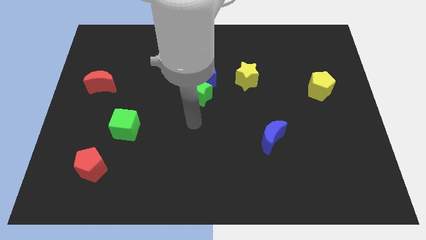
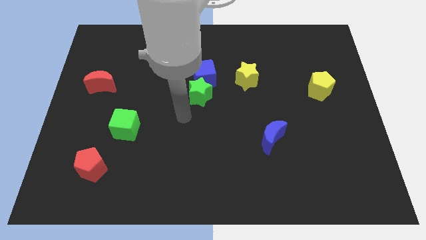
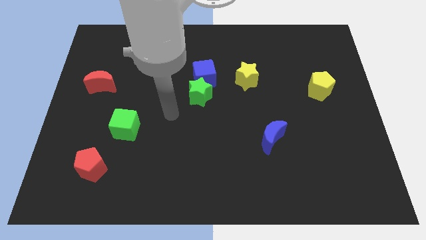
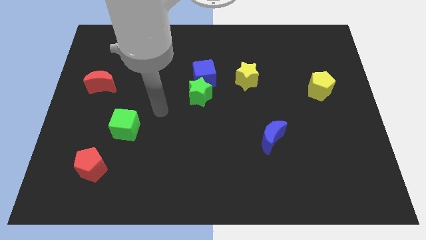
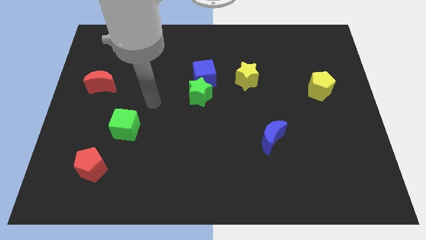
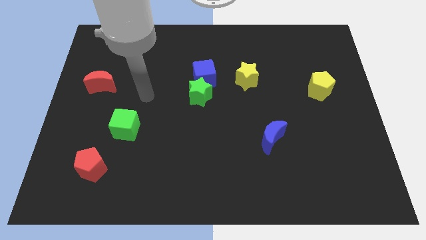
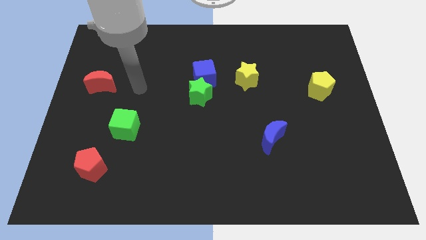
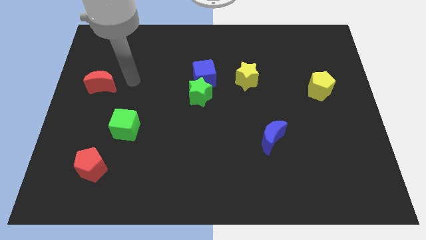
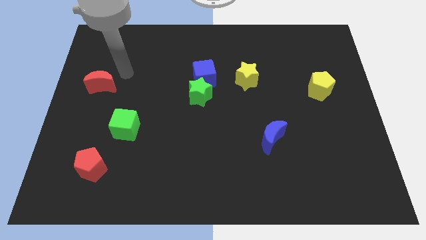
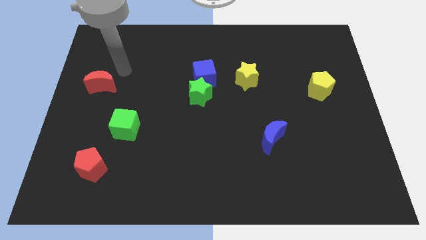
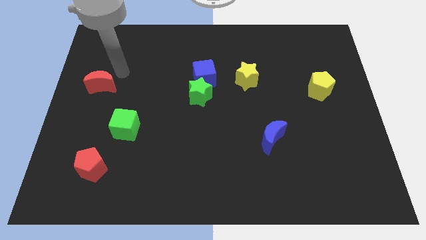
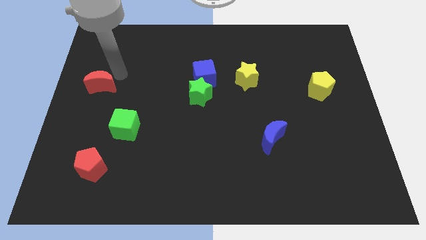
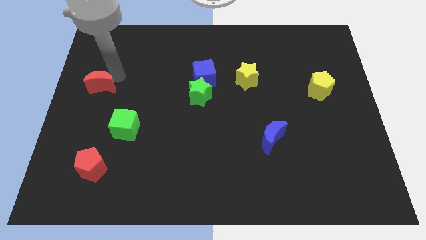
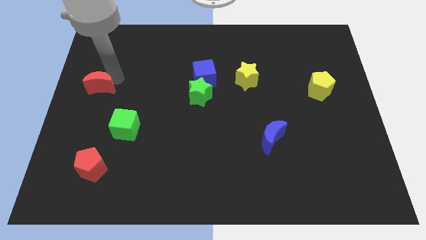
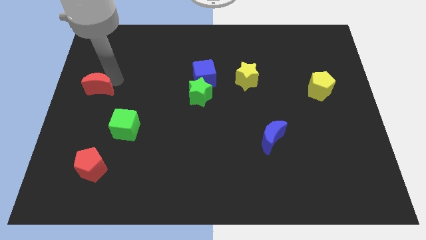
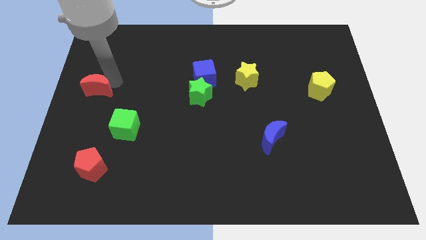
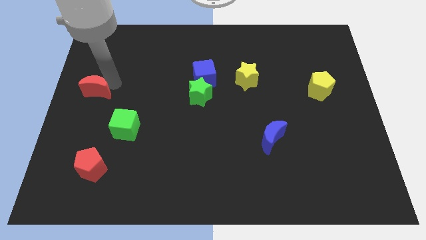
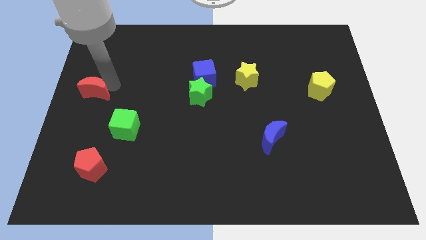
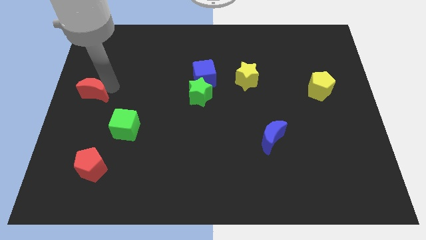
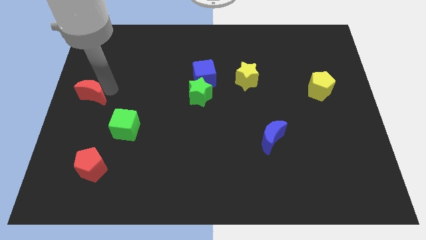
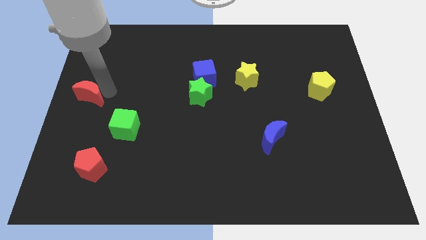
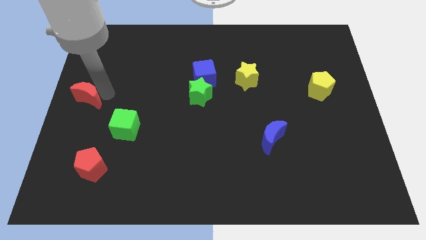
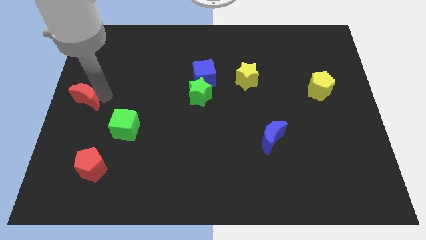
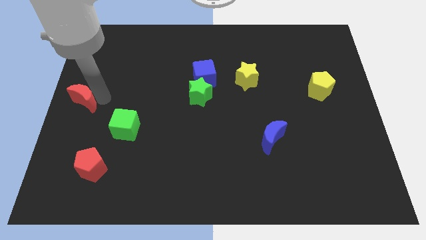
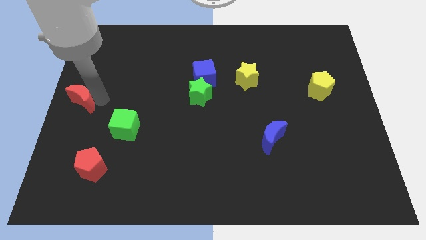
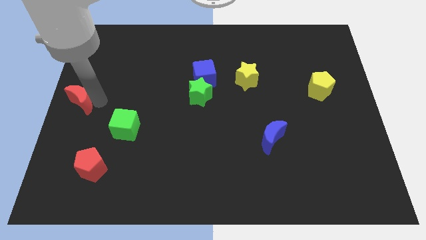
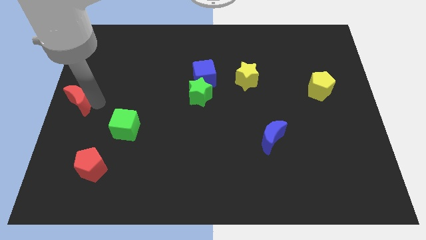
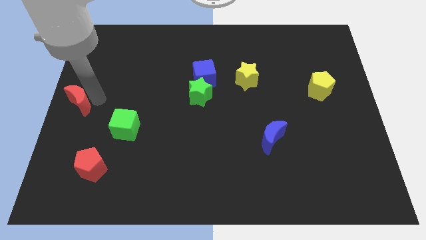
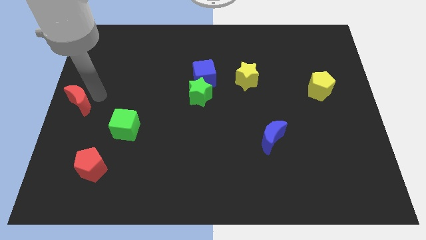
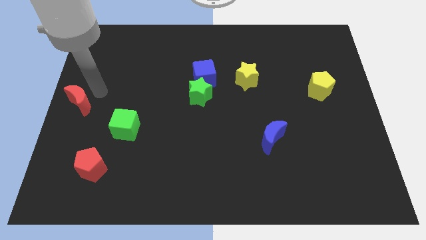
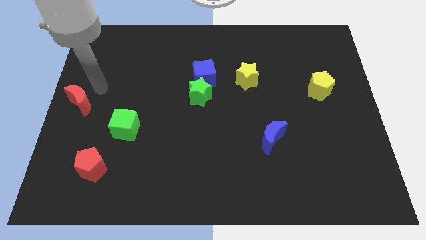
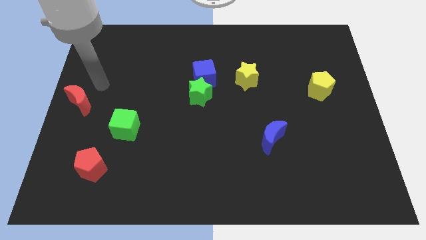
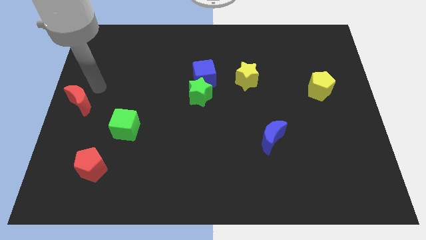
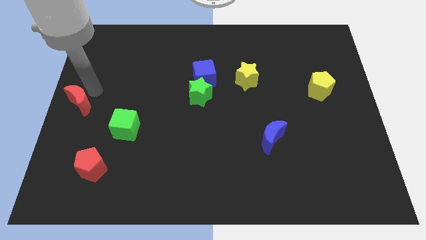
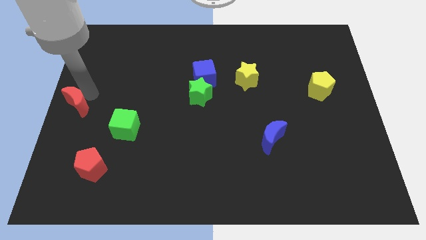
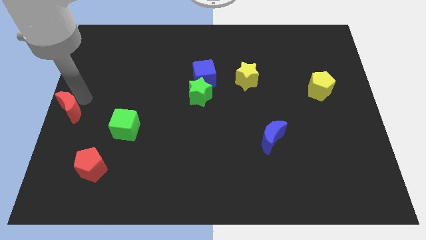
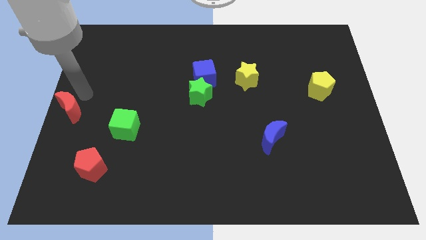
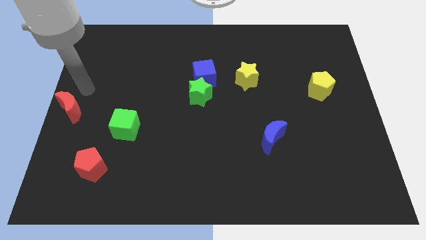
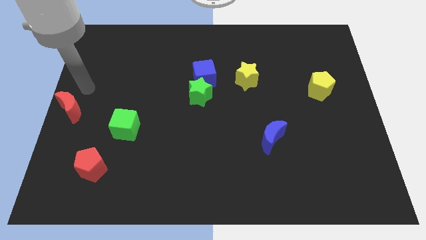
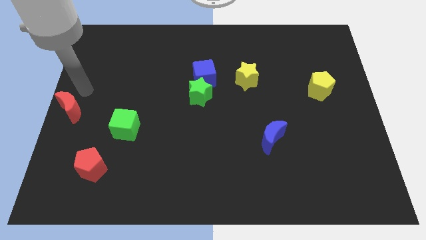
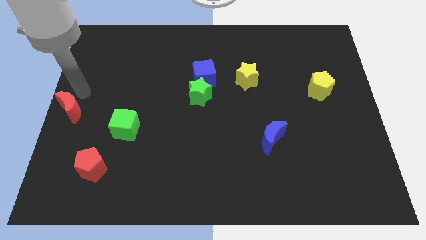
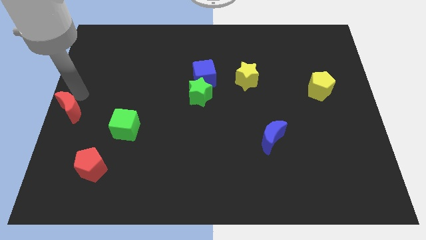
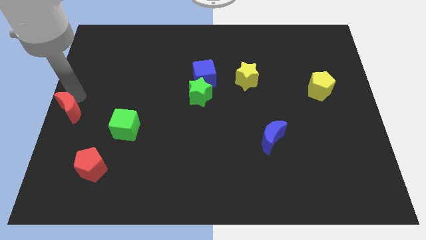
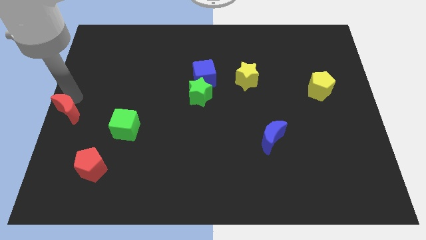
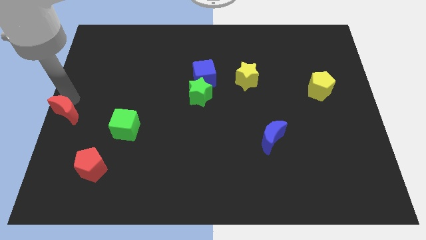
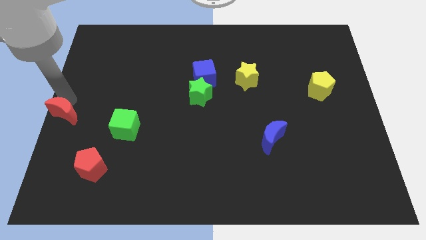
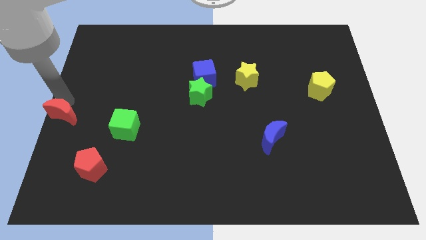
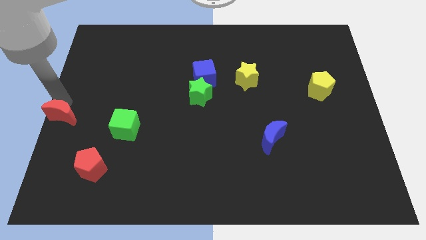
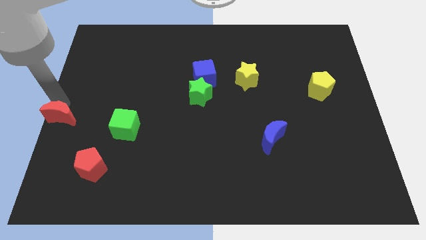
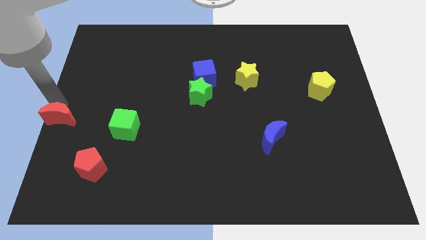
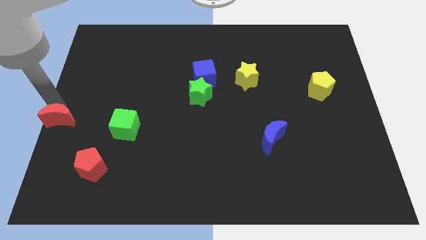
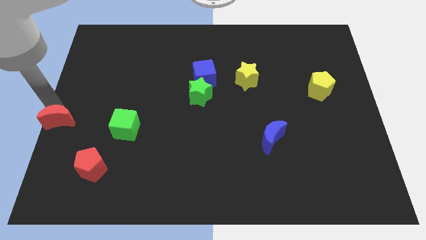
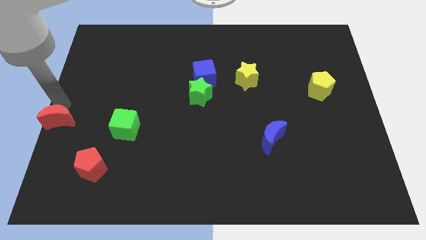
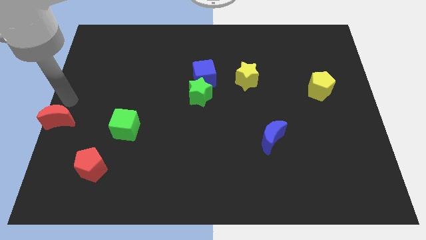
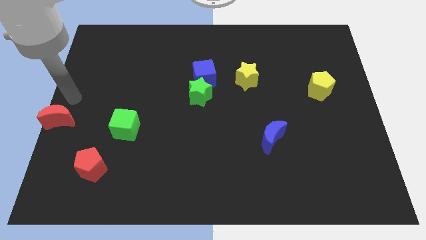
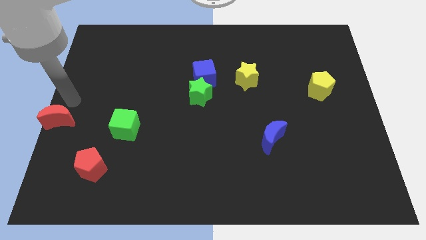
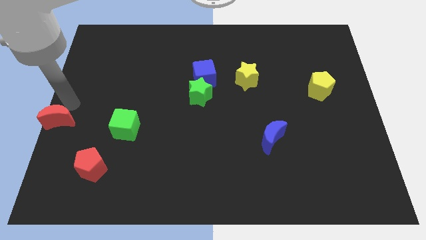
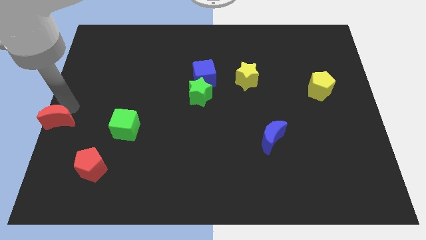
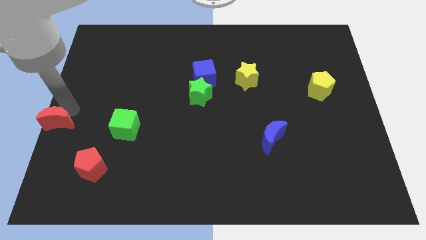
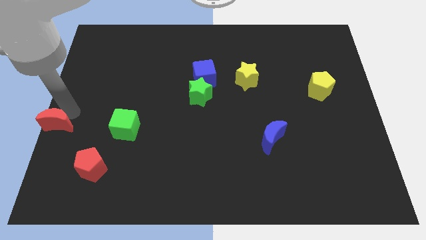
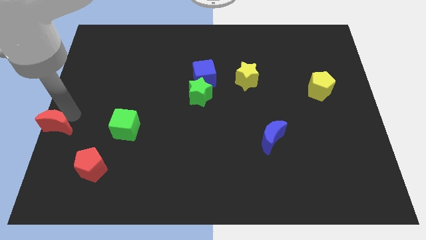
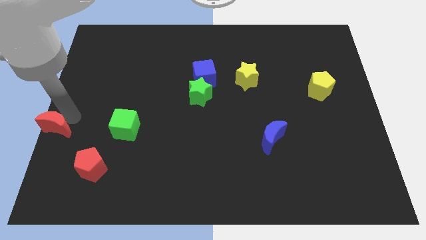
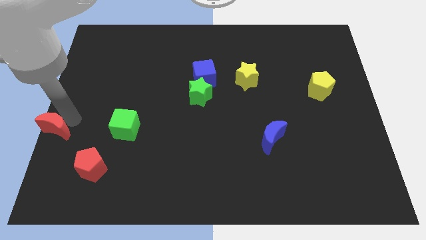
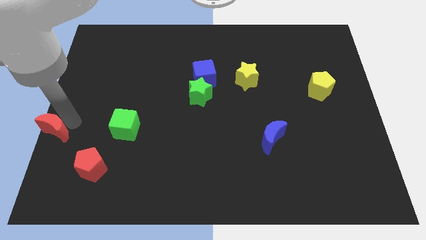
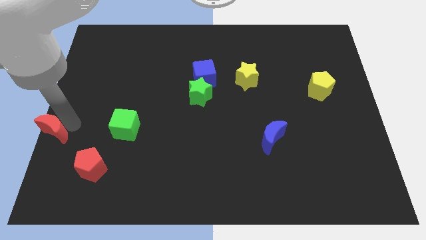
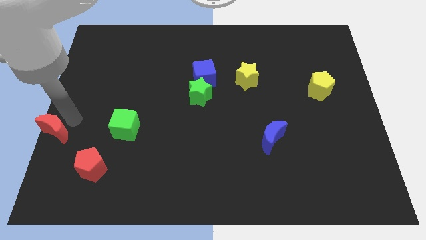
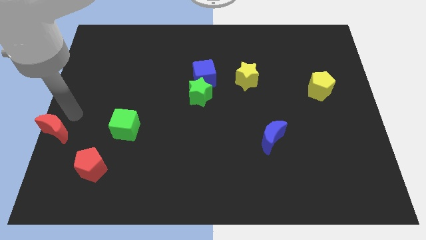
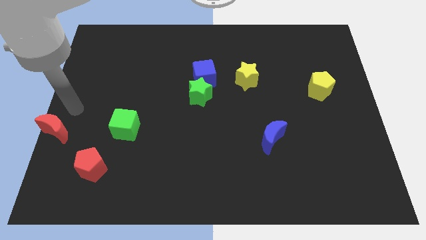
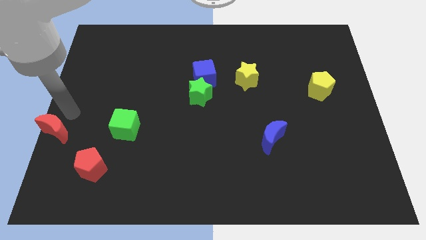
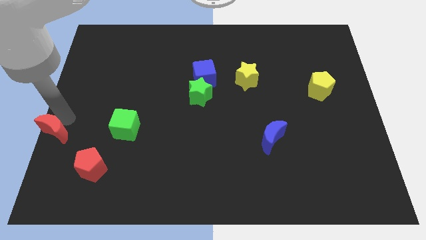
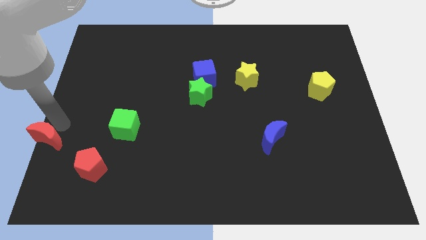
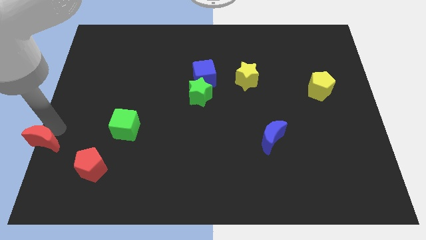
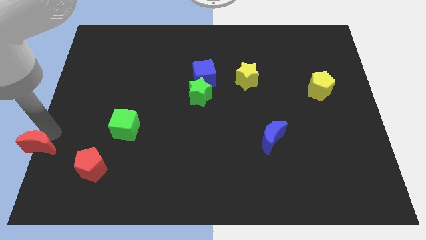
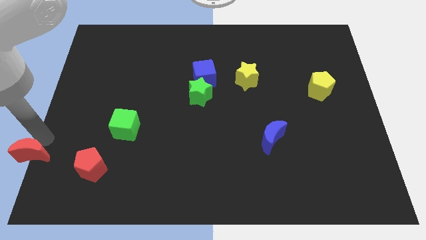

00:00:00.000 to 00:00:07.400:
push the red moon to the bottom left
